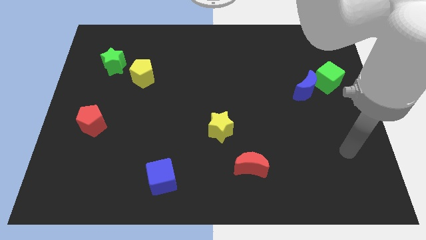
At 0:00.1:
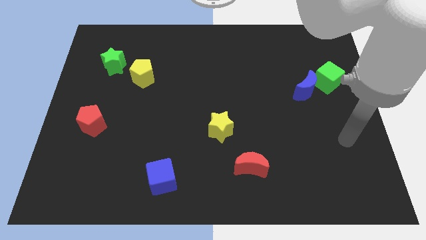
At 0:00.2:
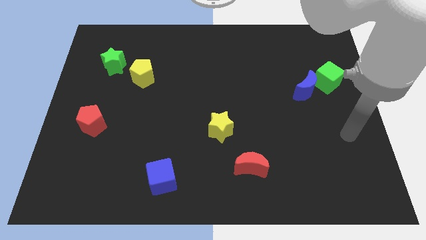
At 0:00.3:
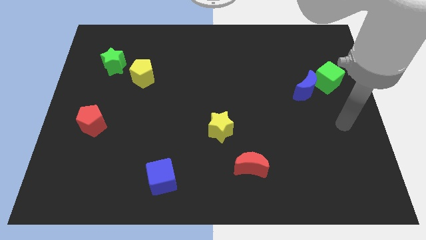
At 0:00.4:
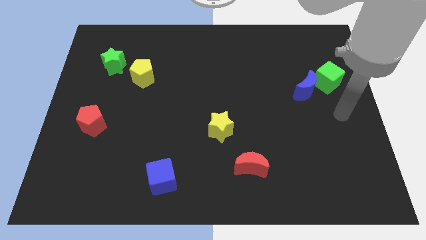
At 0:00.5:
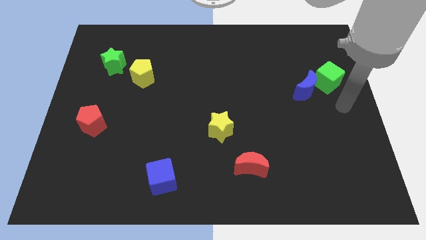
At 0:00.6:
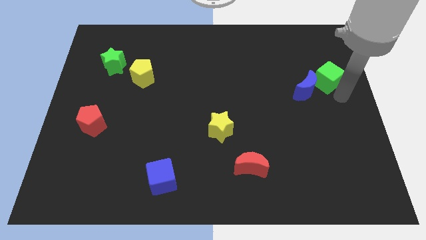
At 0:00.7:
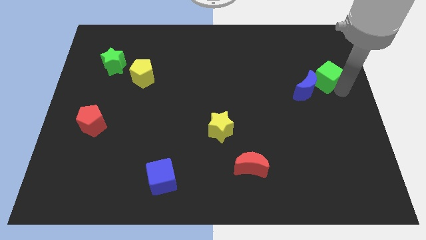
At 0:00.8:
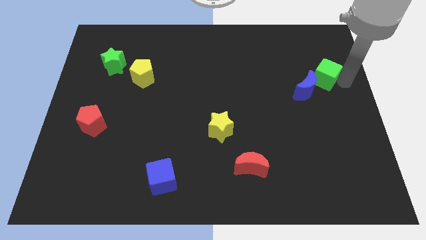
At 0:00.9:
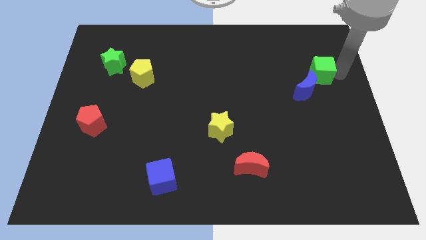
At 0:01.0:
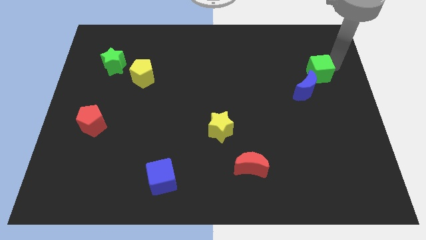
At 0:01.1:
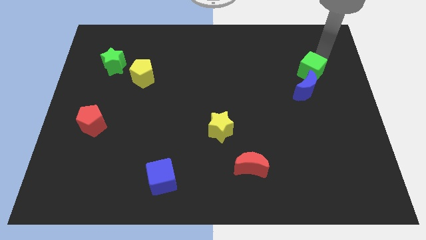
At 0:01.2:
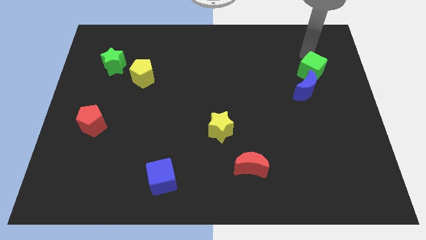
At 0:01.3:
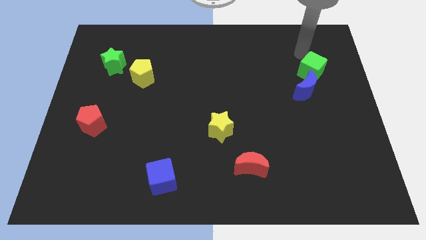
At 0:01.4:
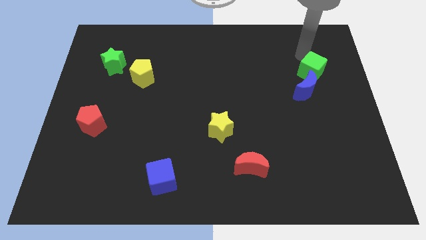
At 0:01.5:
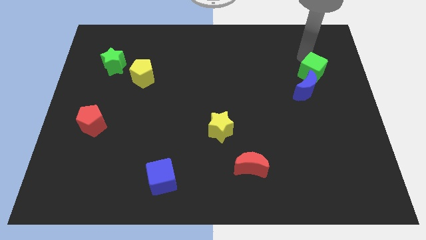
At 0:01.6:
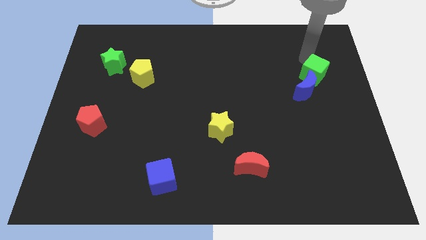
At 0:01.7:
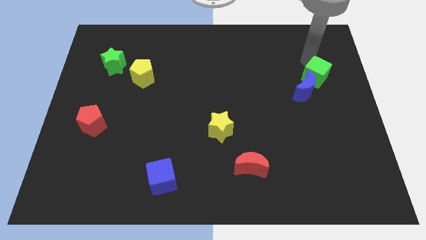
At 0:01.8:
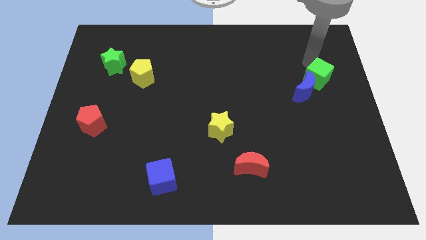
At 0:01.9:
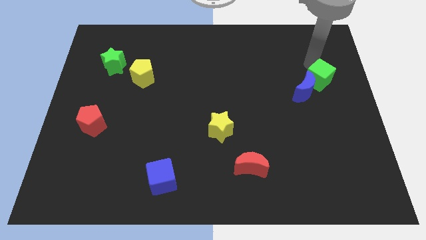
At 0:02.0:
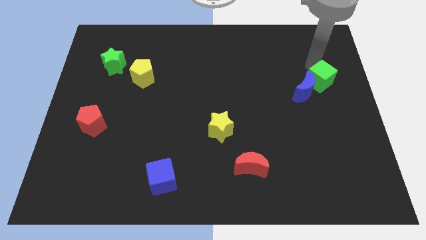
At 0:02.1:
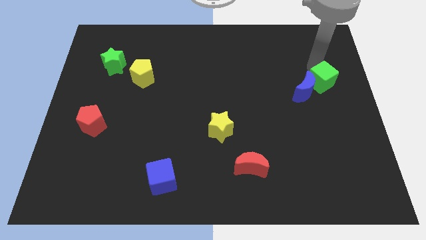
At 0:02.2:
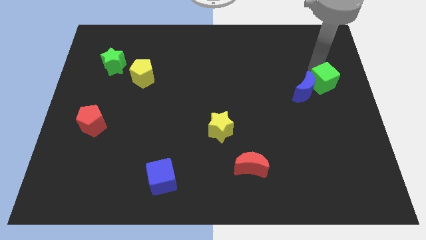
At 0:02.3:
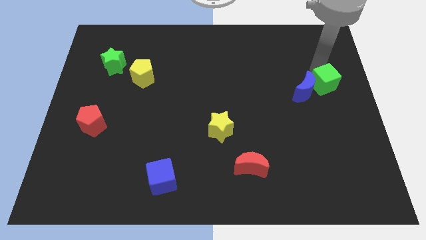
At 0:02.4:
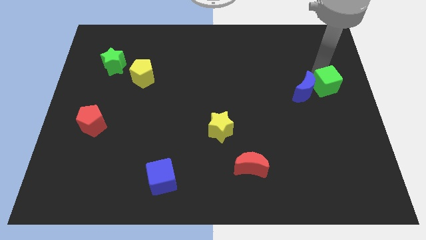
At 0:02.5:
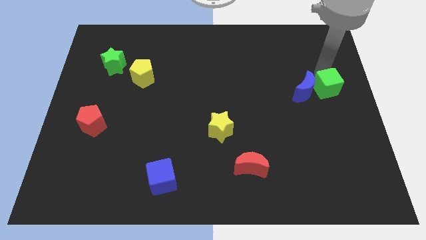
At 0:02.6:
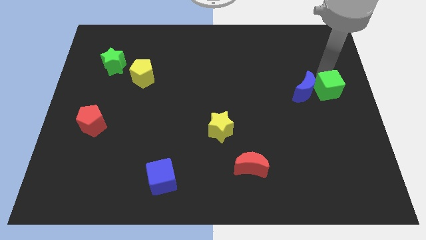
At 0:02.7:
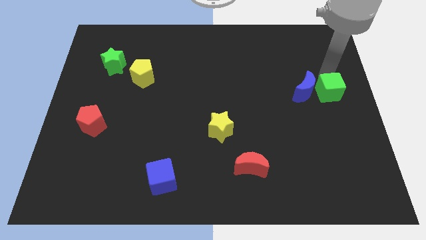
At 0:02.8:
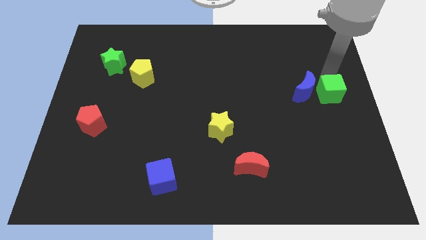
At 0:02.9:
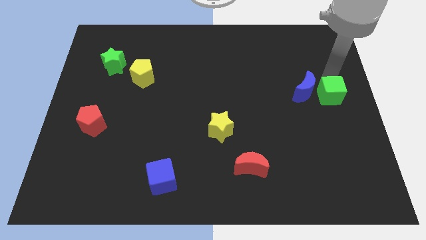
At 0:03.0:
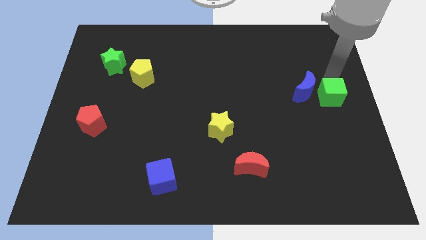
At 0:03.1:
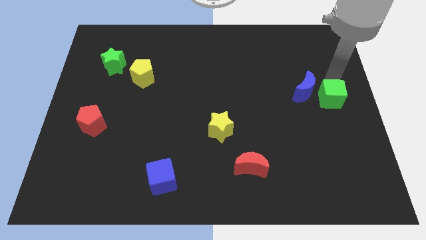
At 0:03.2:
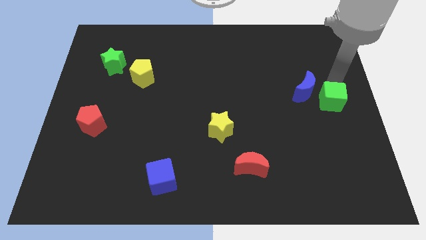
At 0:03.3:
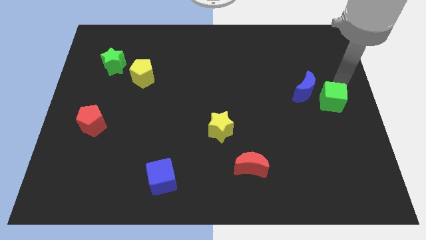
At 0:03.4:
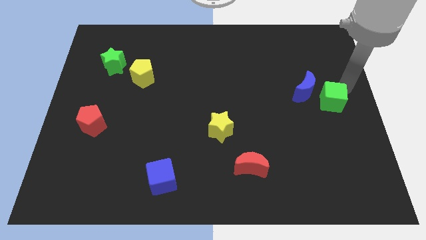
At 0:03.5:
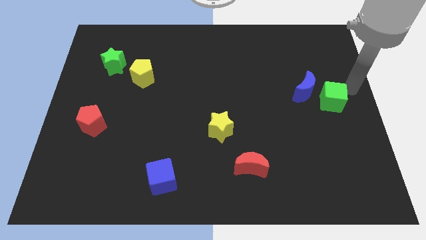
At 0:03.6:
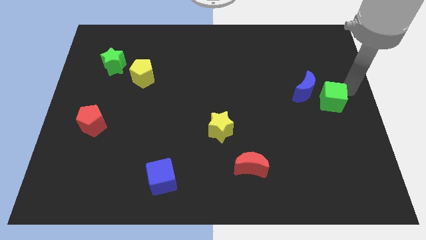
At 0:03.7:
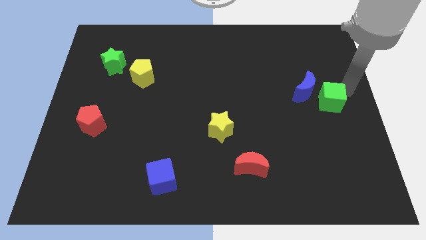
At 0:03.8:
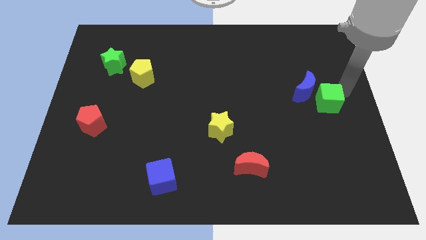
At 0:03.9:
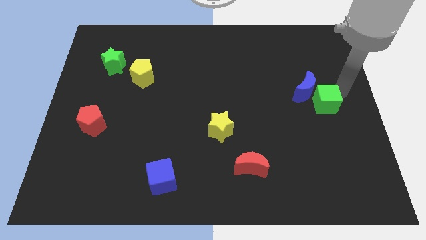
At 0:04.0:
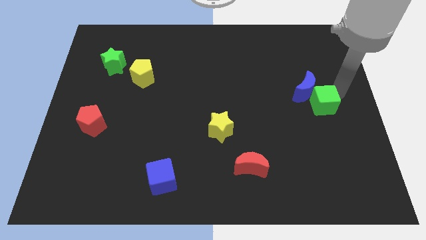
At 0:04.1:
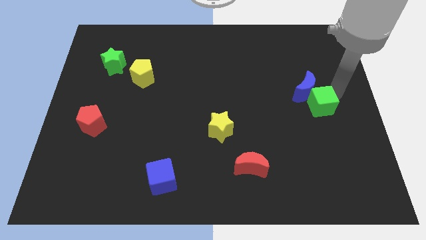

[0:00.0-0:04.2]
slightly push the green cube down and to the left diagonally

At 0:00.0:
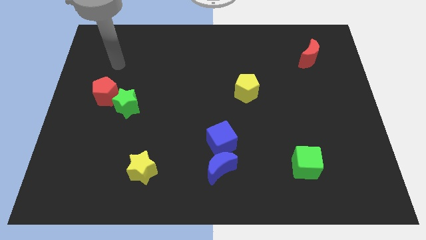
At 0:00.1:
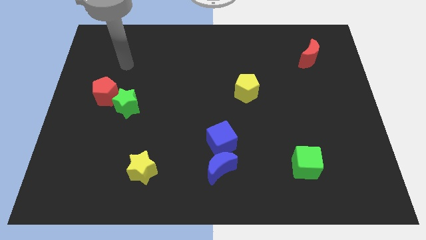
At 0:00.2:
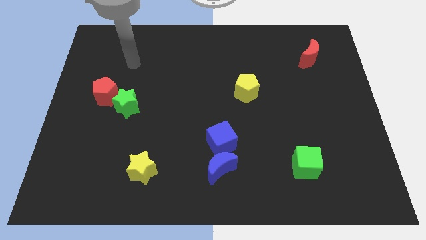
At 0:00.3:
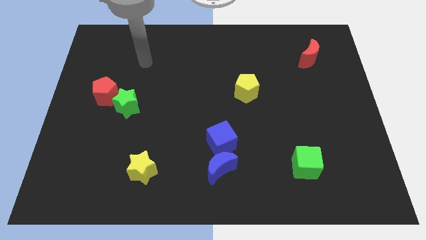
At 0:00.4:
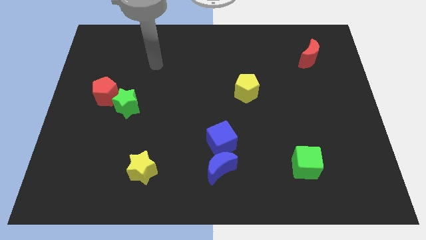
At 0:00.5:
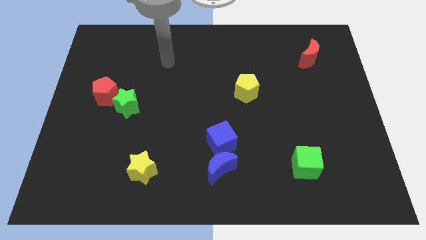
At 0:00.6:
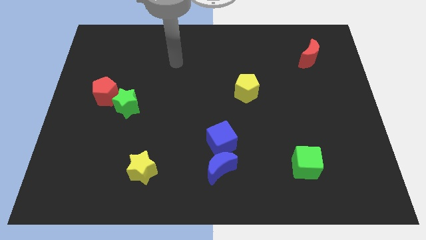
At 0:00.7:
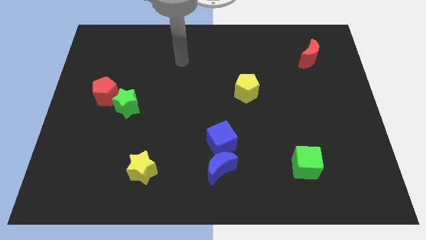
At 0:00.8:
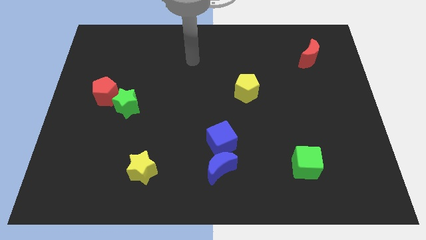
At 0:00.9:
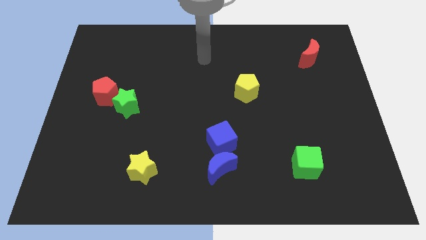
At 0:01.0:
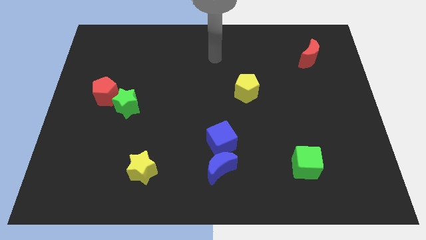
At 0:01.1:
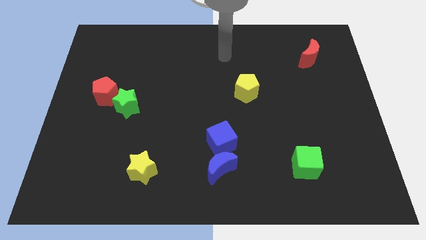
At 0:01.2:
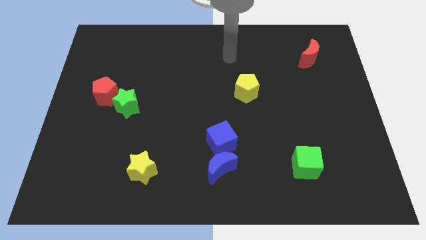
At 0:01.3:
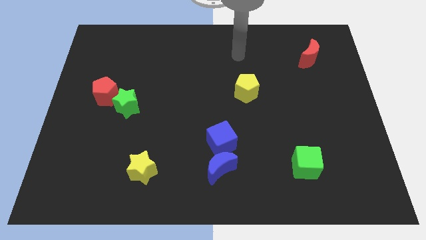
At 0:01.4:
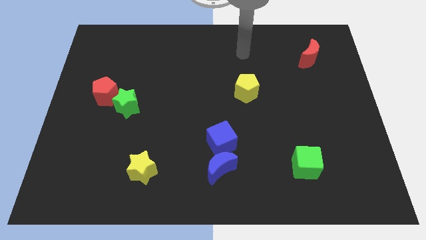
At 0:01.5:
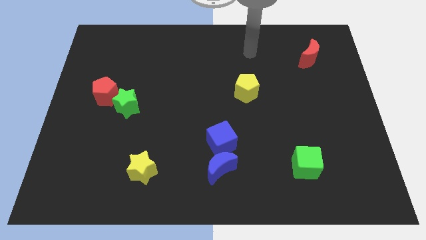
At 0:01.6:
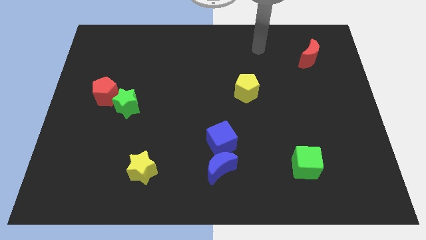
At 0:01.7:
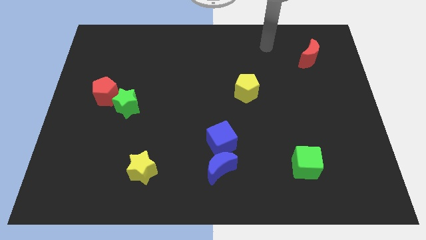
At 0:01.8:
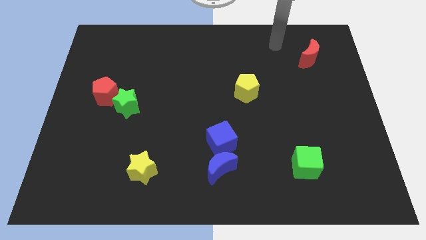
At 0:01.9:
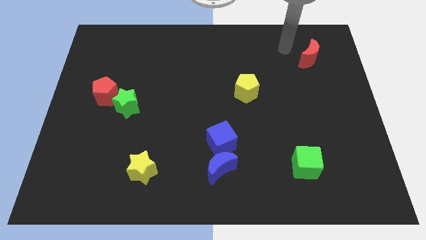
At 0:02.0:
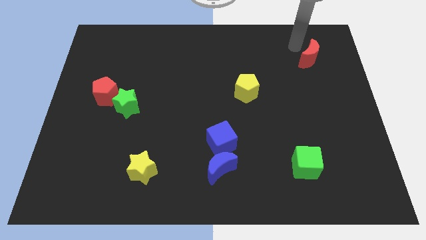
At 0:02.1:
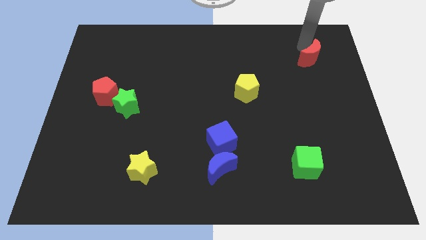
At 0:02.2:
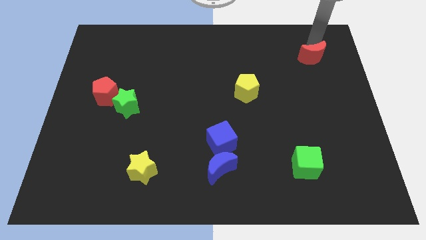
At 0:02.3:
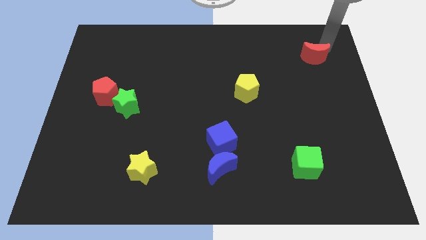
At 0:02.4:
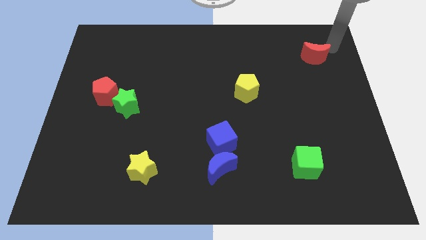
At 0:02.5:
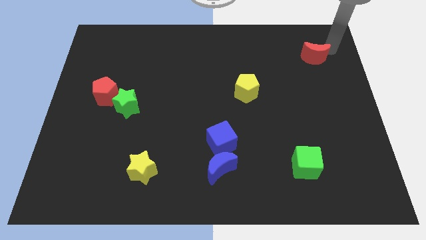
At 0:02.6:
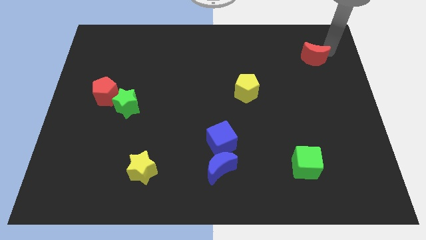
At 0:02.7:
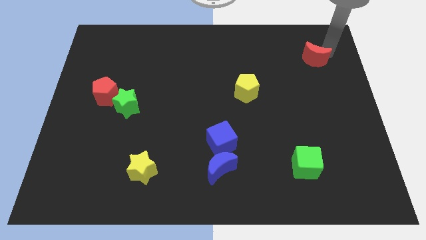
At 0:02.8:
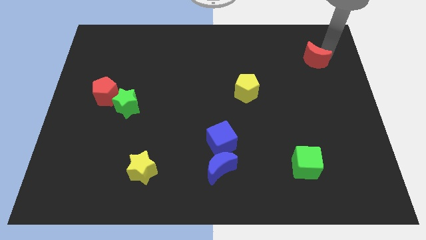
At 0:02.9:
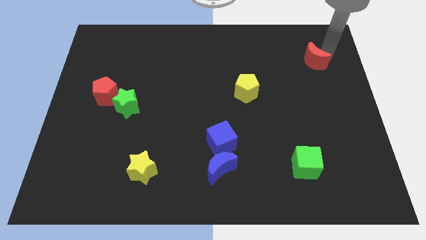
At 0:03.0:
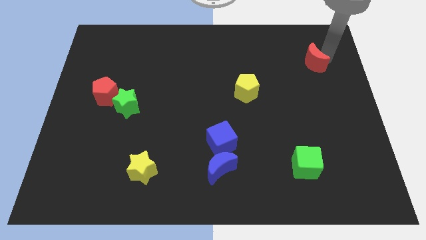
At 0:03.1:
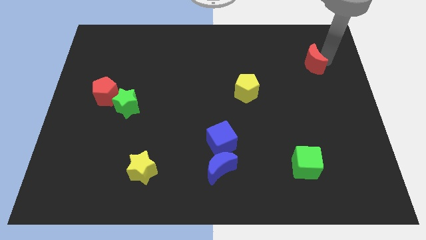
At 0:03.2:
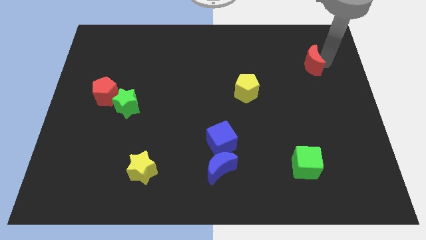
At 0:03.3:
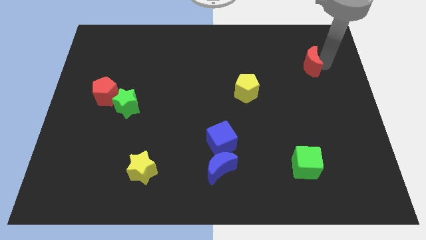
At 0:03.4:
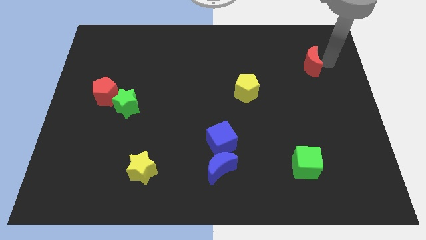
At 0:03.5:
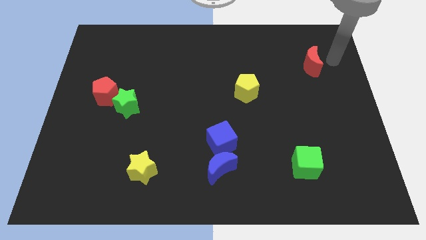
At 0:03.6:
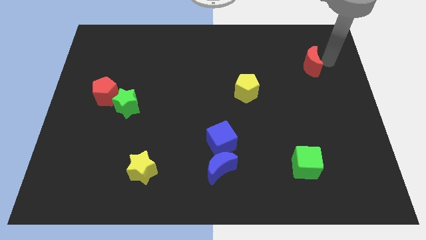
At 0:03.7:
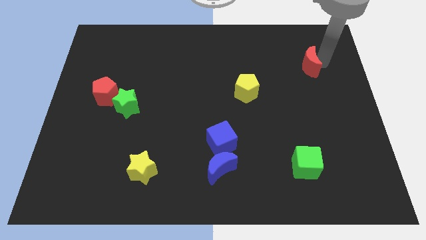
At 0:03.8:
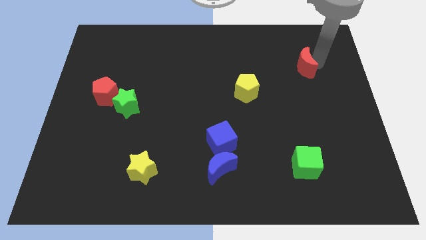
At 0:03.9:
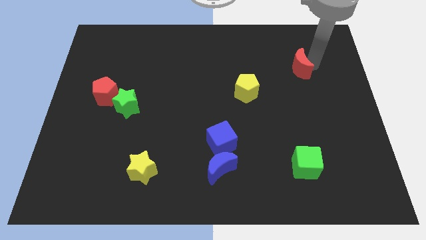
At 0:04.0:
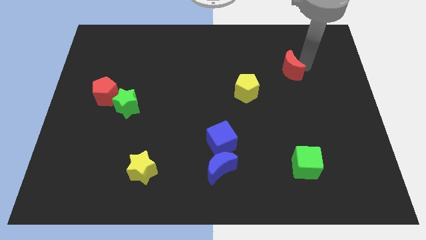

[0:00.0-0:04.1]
push the red moon a little bit downwards and then to the left
